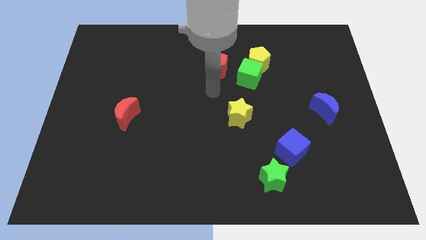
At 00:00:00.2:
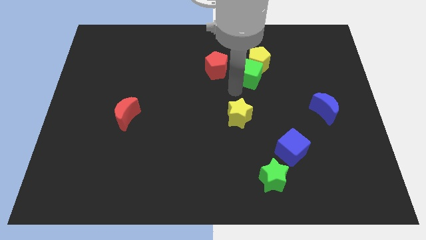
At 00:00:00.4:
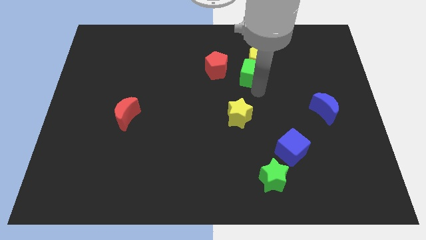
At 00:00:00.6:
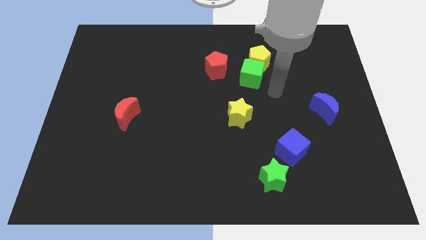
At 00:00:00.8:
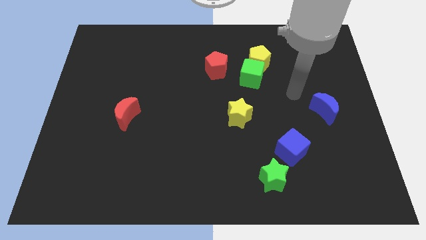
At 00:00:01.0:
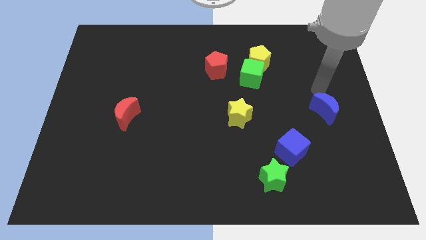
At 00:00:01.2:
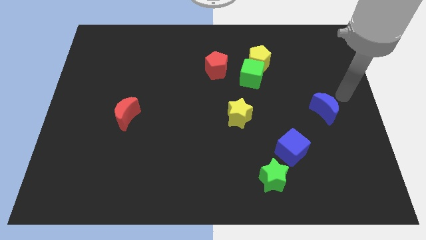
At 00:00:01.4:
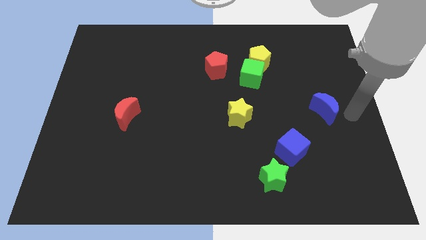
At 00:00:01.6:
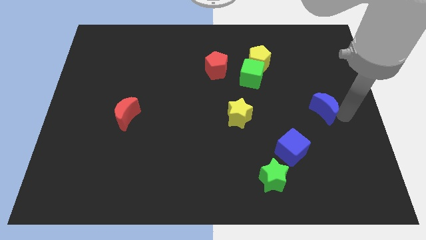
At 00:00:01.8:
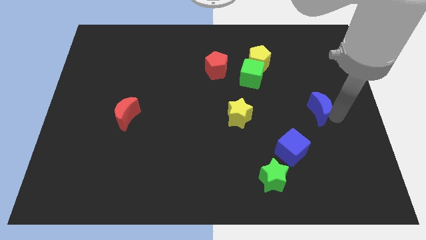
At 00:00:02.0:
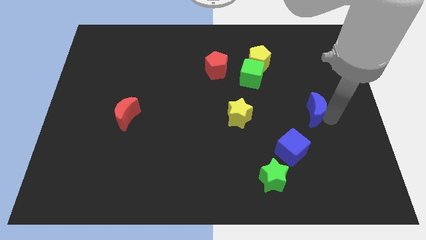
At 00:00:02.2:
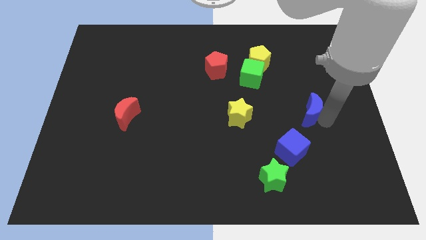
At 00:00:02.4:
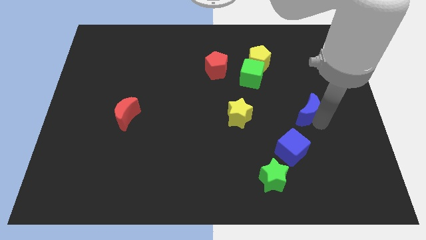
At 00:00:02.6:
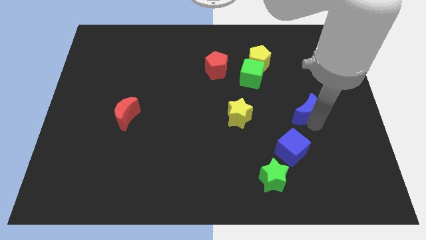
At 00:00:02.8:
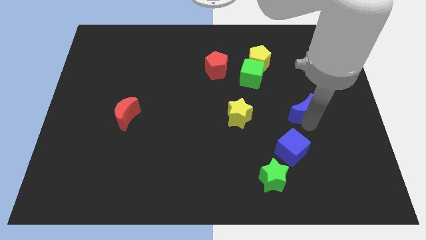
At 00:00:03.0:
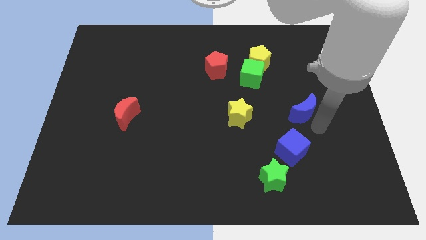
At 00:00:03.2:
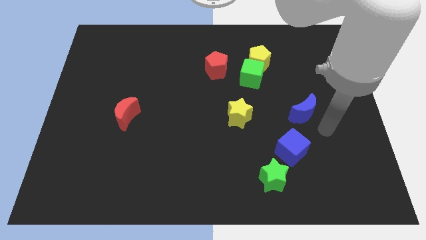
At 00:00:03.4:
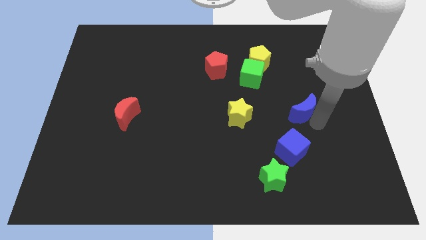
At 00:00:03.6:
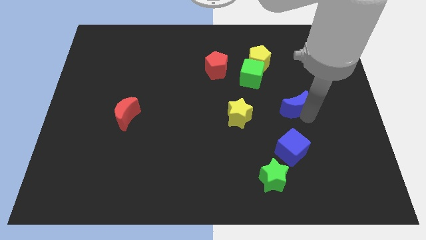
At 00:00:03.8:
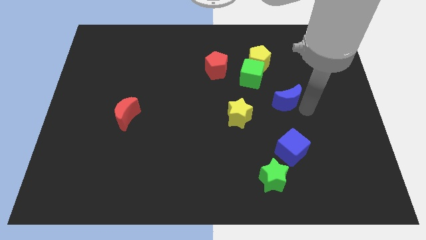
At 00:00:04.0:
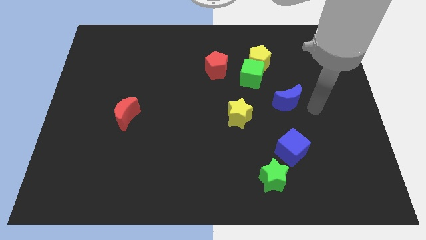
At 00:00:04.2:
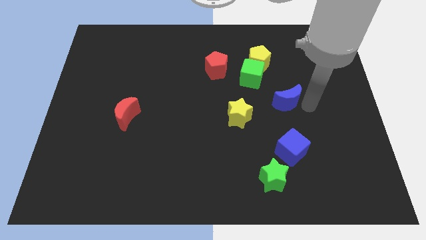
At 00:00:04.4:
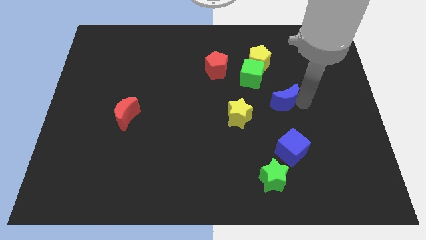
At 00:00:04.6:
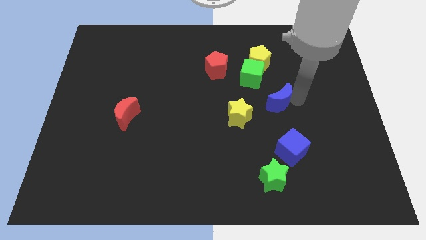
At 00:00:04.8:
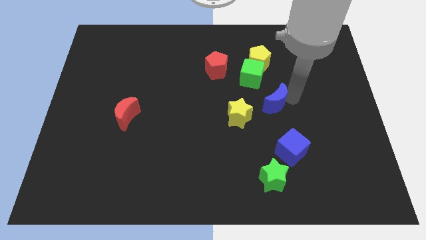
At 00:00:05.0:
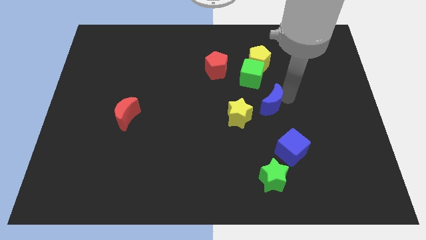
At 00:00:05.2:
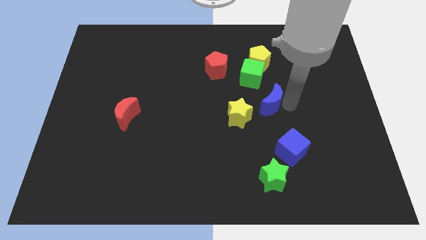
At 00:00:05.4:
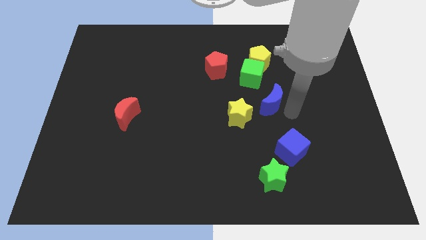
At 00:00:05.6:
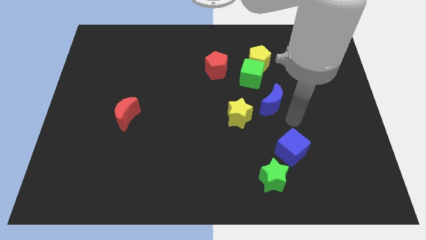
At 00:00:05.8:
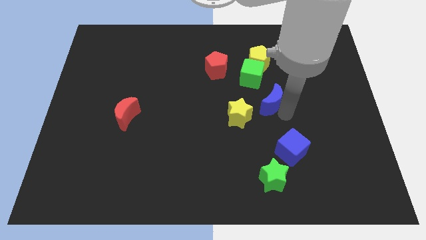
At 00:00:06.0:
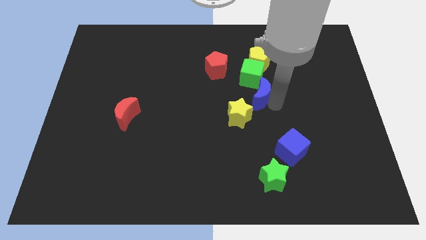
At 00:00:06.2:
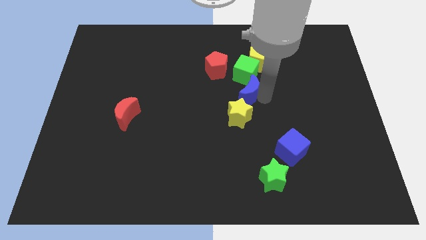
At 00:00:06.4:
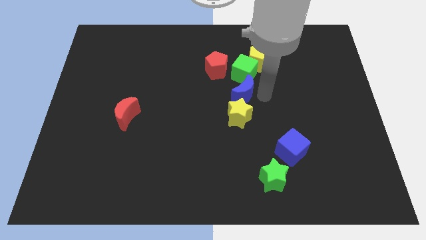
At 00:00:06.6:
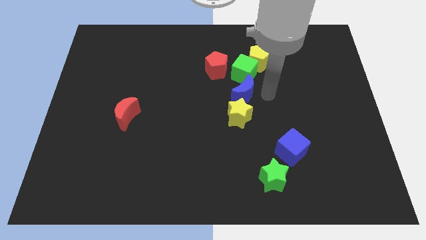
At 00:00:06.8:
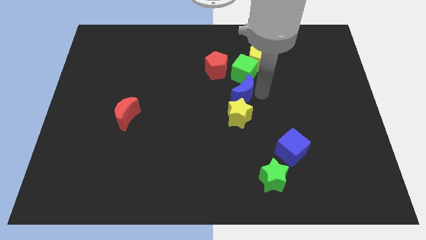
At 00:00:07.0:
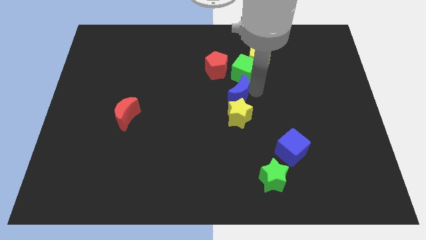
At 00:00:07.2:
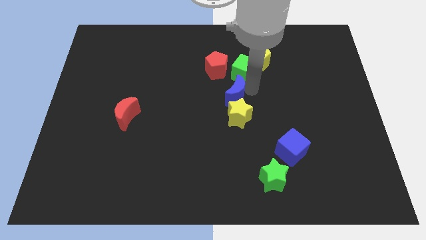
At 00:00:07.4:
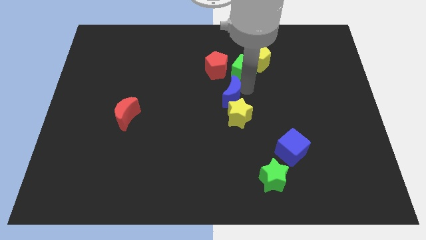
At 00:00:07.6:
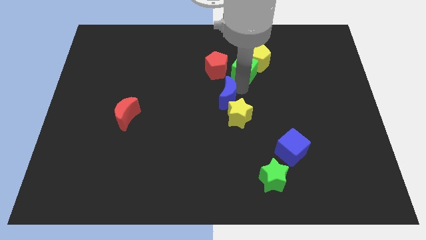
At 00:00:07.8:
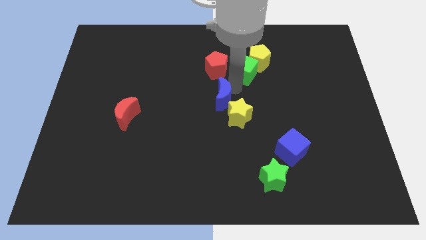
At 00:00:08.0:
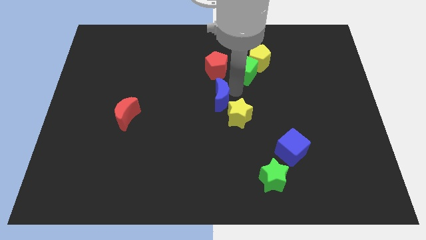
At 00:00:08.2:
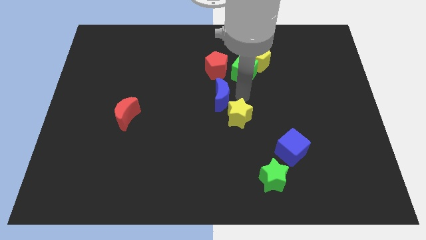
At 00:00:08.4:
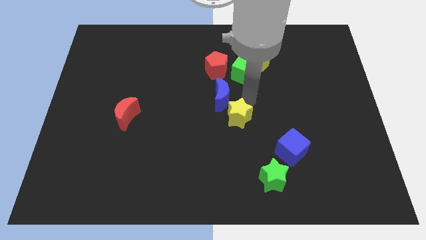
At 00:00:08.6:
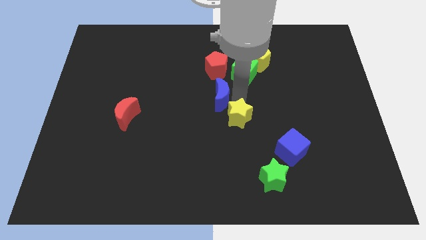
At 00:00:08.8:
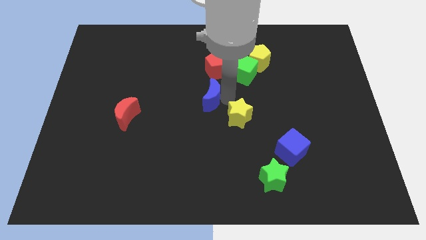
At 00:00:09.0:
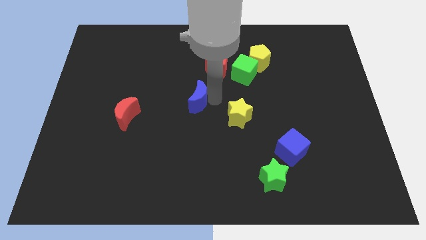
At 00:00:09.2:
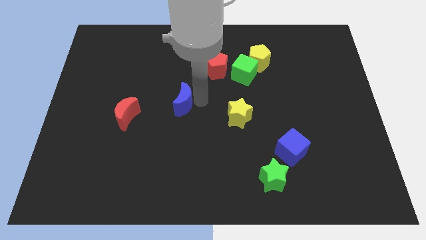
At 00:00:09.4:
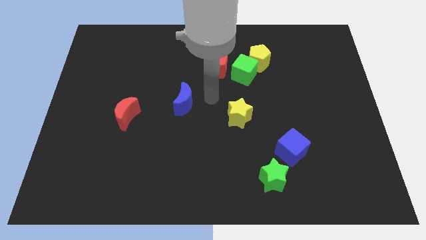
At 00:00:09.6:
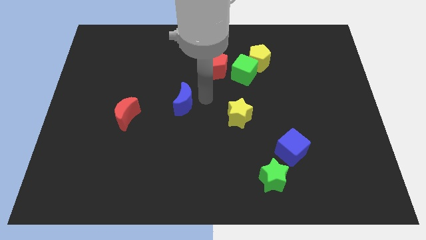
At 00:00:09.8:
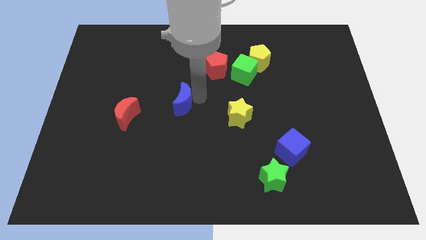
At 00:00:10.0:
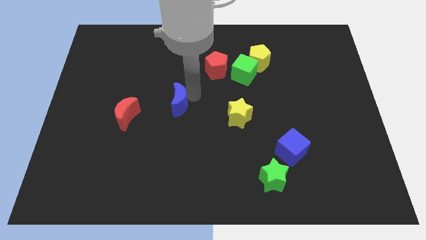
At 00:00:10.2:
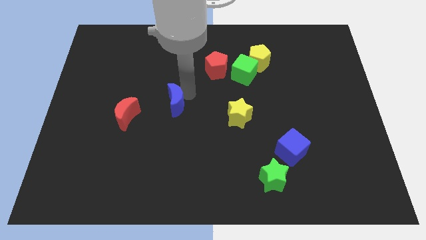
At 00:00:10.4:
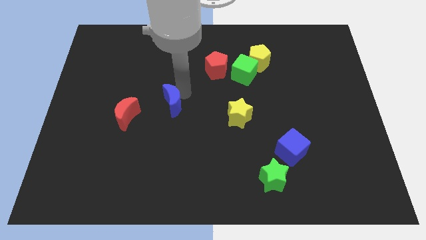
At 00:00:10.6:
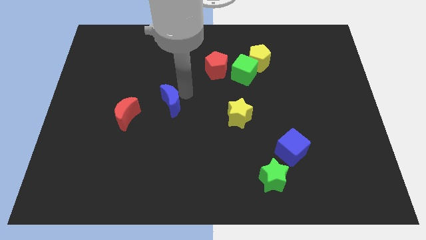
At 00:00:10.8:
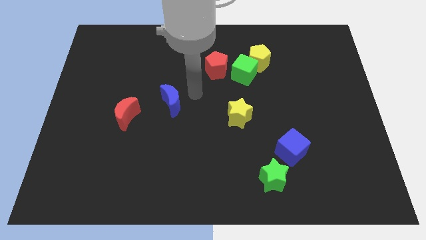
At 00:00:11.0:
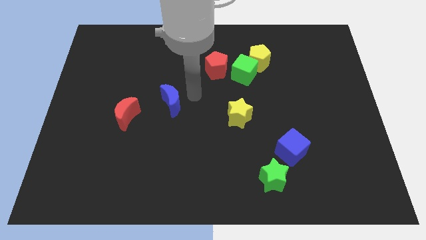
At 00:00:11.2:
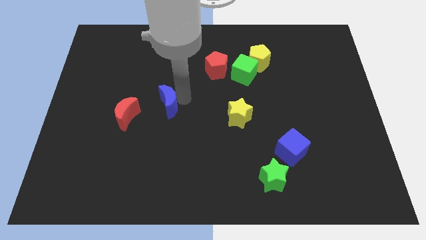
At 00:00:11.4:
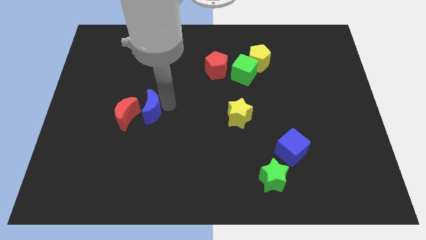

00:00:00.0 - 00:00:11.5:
move the blue moon next to the red moon

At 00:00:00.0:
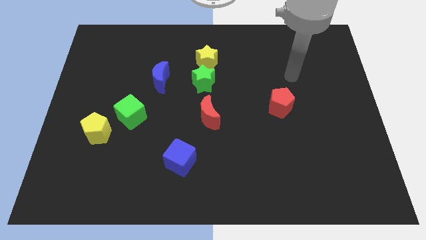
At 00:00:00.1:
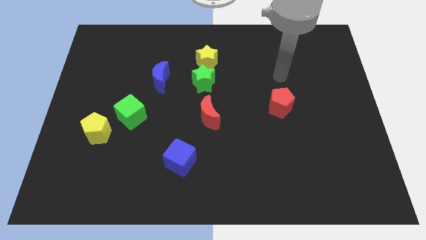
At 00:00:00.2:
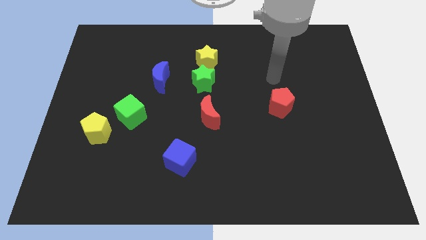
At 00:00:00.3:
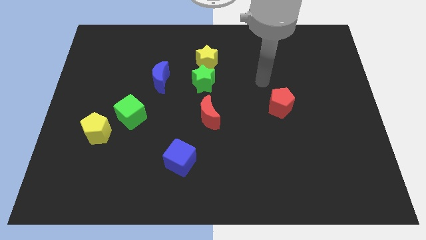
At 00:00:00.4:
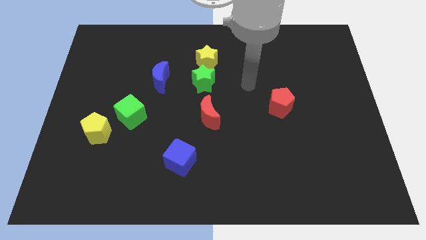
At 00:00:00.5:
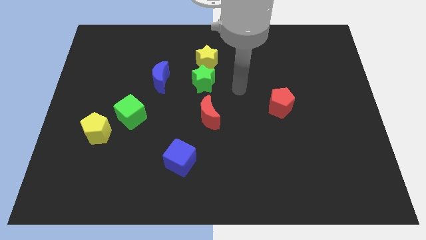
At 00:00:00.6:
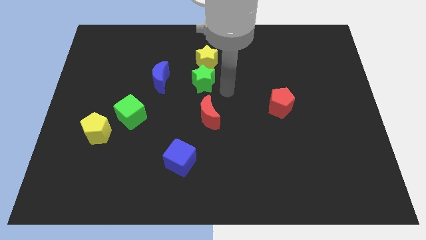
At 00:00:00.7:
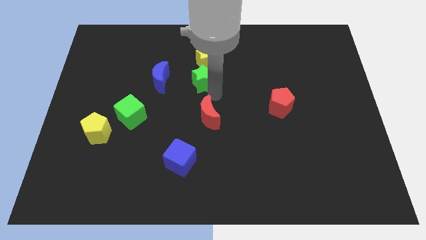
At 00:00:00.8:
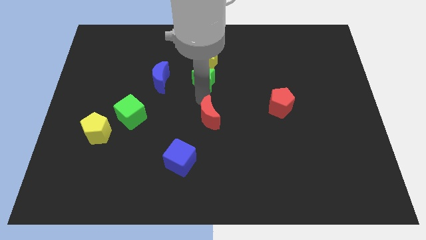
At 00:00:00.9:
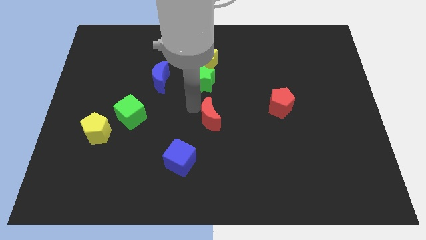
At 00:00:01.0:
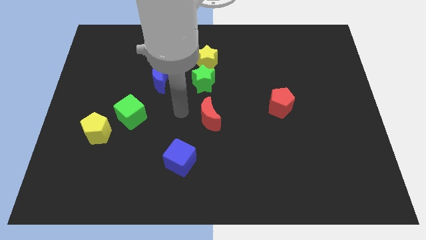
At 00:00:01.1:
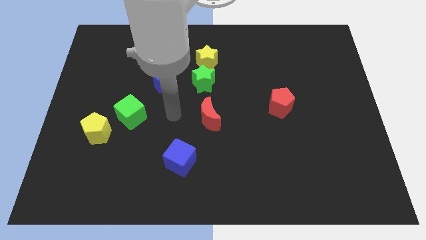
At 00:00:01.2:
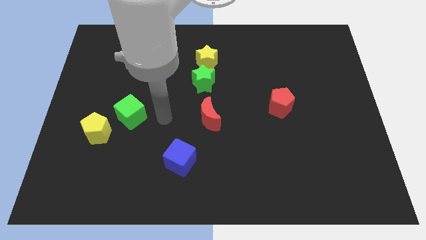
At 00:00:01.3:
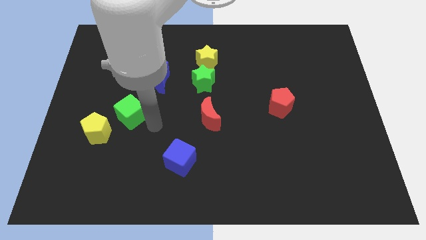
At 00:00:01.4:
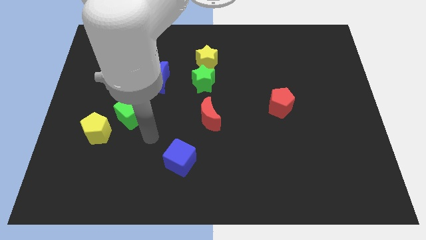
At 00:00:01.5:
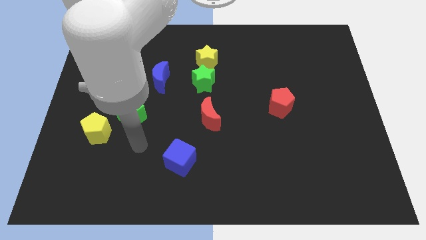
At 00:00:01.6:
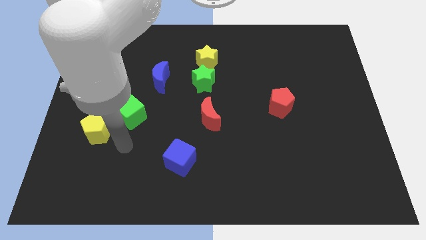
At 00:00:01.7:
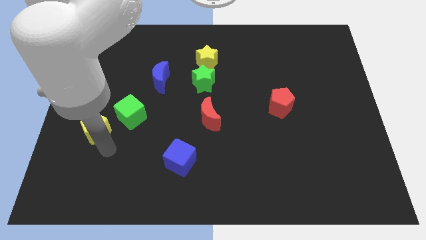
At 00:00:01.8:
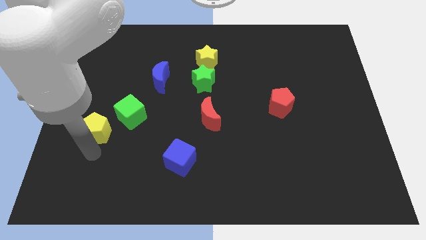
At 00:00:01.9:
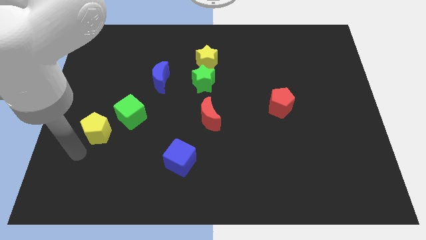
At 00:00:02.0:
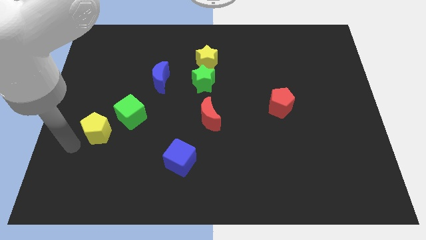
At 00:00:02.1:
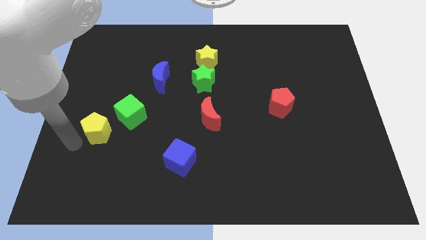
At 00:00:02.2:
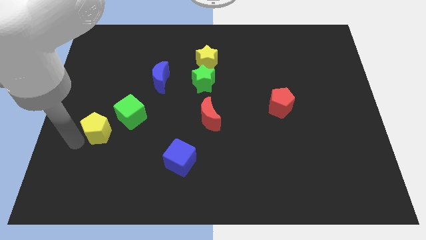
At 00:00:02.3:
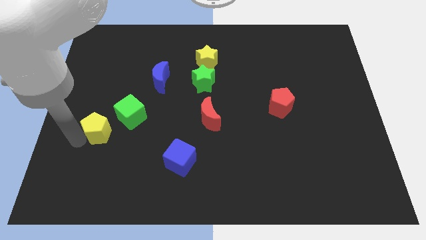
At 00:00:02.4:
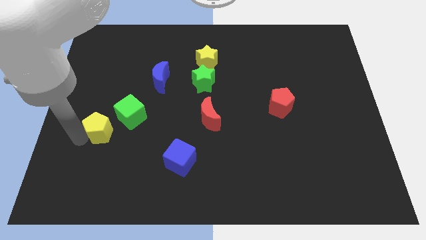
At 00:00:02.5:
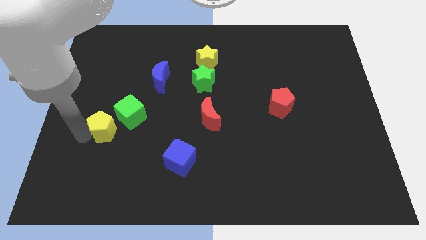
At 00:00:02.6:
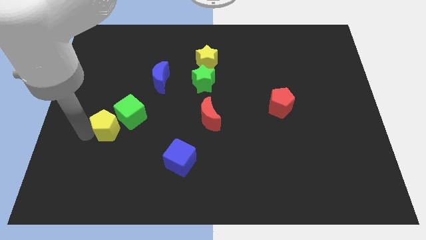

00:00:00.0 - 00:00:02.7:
put the yellow pentagon to the green cube
